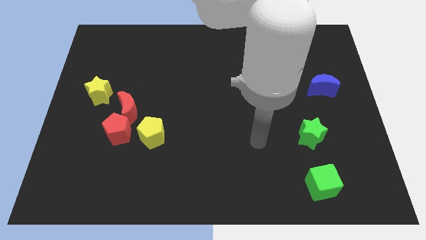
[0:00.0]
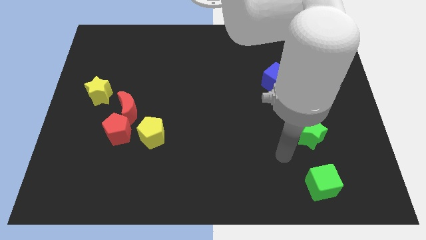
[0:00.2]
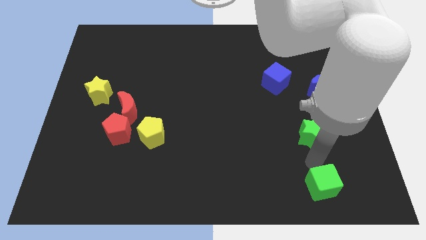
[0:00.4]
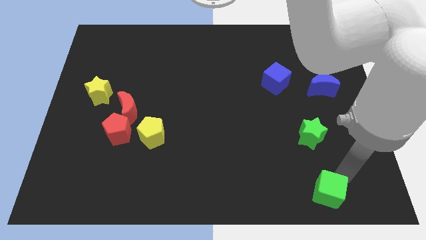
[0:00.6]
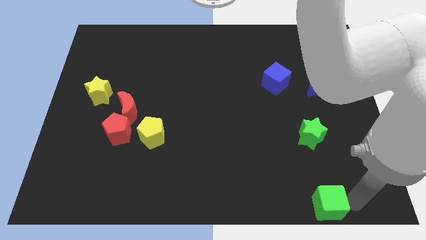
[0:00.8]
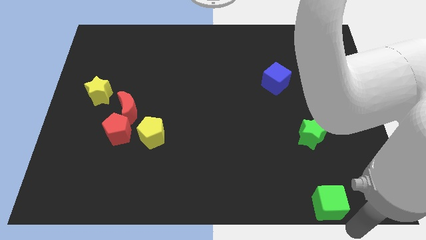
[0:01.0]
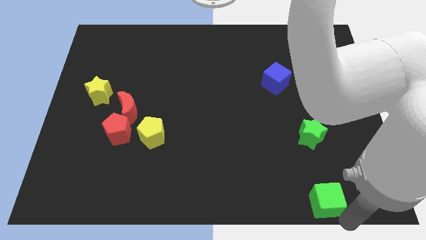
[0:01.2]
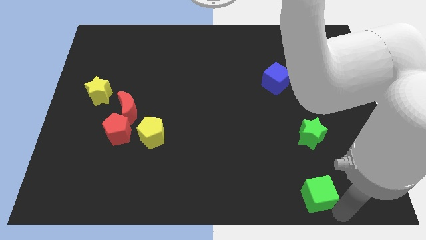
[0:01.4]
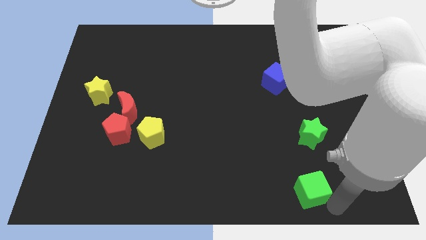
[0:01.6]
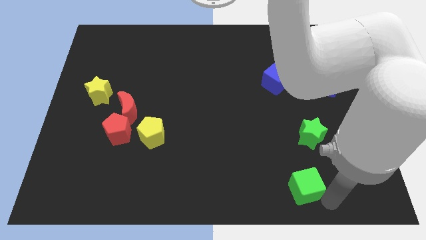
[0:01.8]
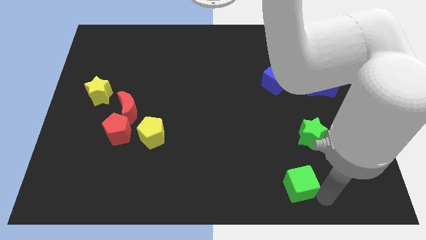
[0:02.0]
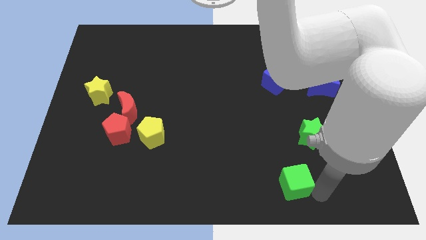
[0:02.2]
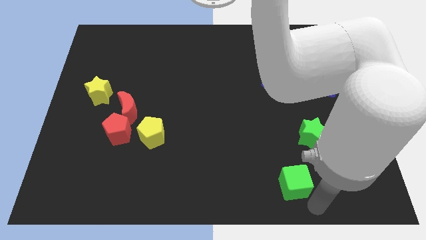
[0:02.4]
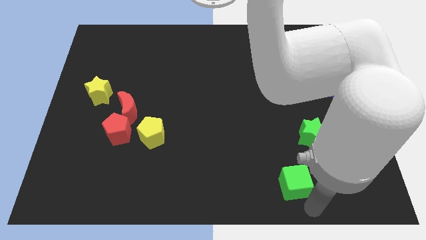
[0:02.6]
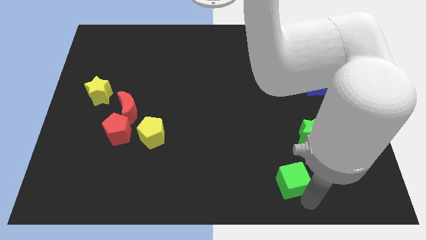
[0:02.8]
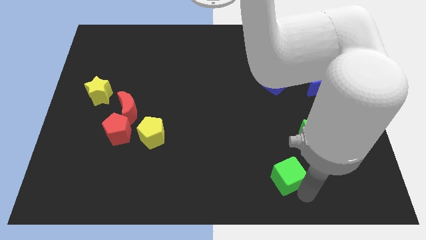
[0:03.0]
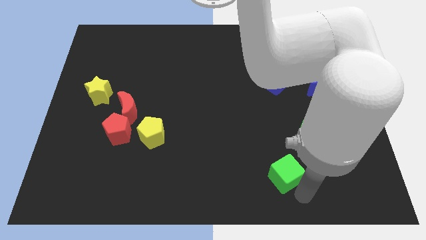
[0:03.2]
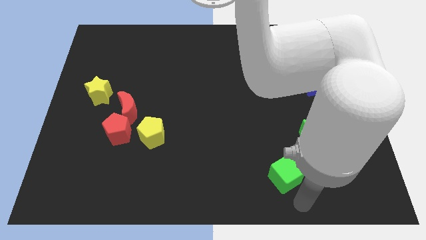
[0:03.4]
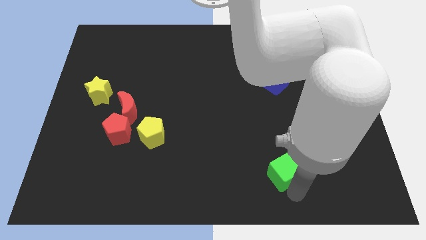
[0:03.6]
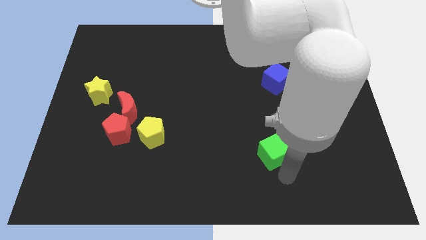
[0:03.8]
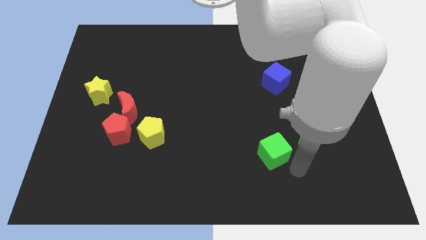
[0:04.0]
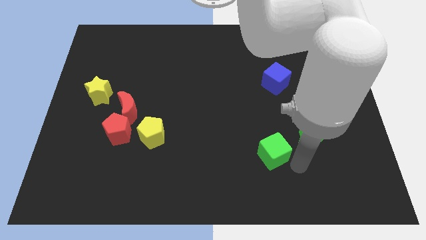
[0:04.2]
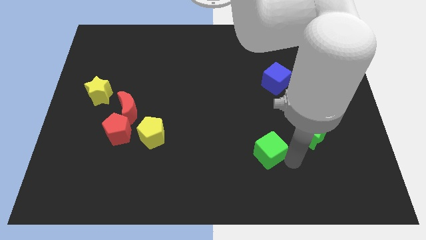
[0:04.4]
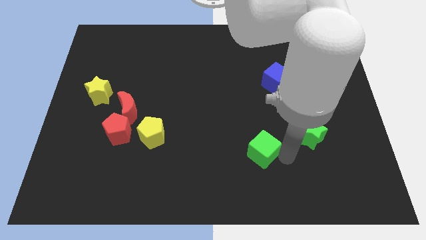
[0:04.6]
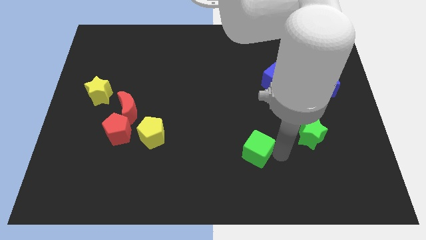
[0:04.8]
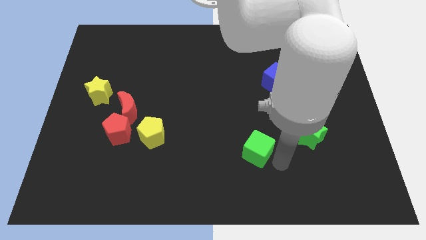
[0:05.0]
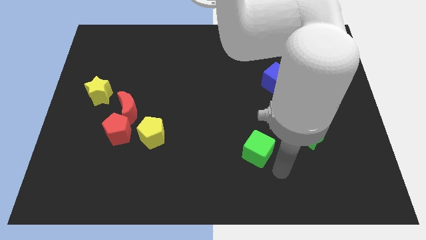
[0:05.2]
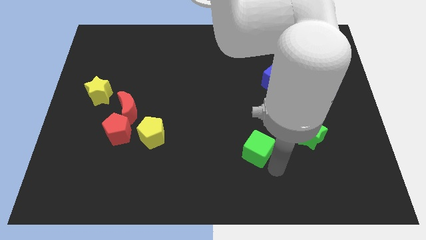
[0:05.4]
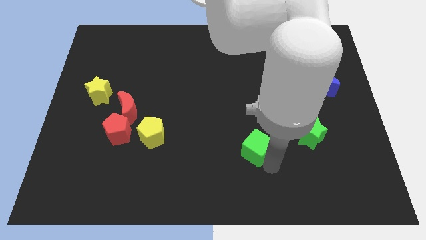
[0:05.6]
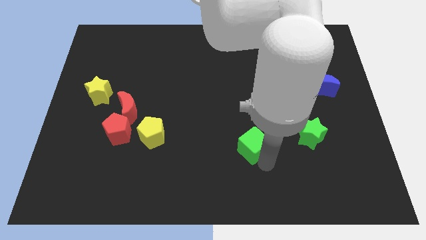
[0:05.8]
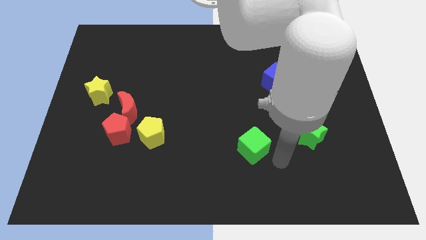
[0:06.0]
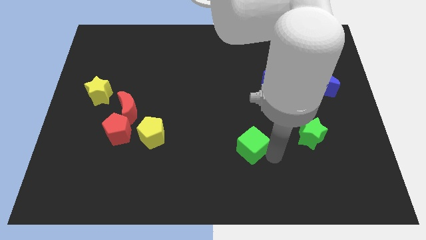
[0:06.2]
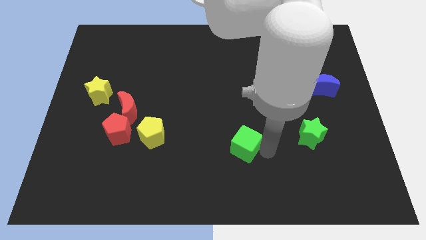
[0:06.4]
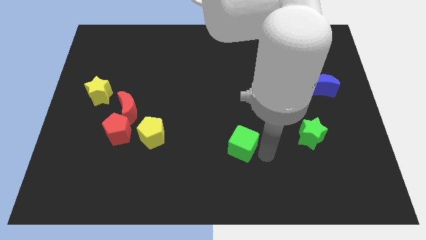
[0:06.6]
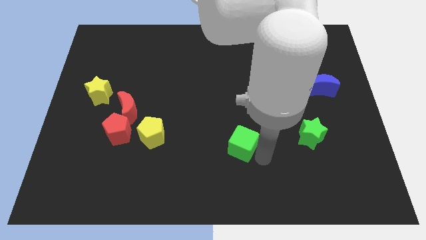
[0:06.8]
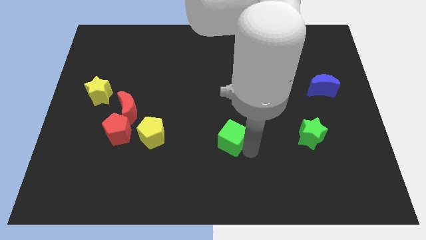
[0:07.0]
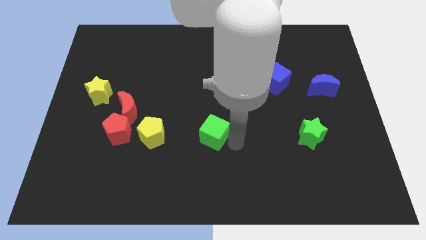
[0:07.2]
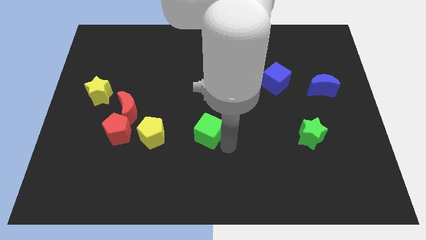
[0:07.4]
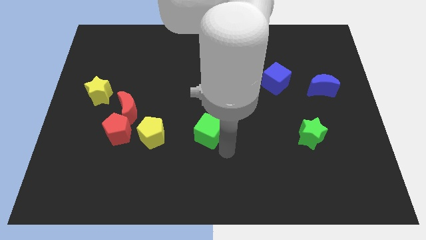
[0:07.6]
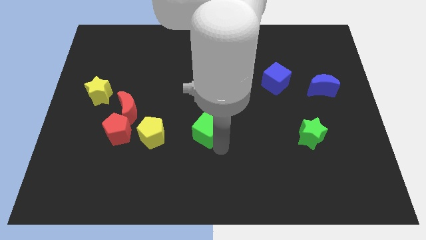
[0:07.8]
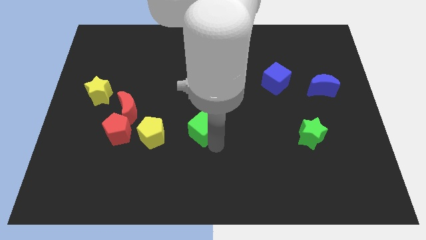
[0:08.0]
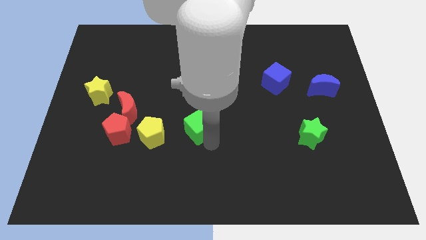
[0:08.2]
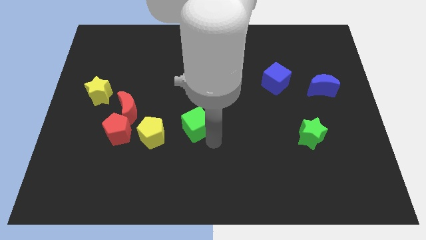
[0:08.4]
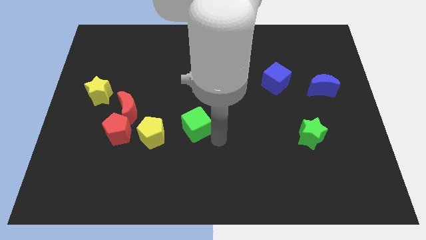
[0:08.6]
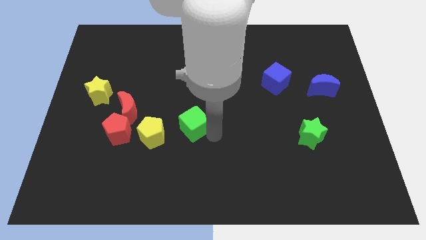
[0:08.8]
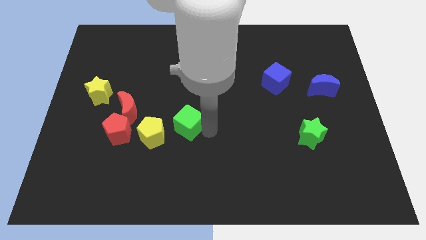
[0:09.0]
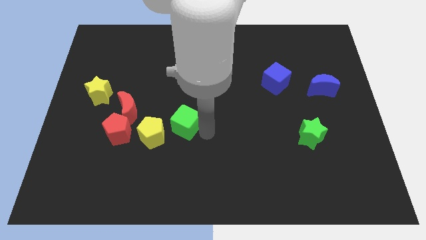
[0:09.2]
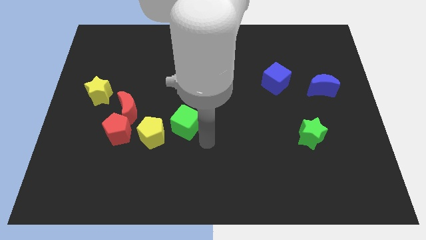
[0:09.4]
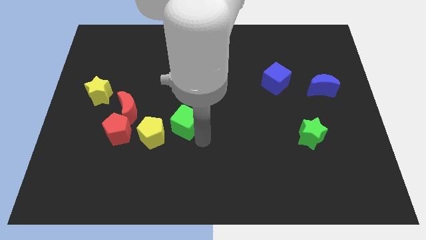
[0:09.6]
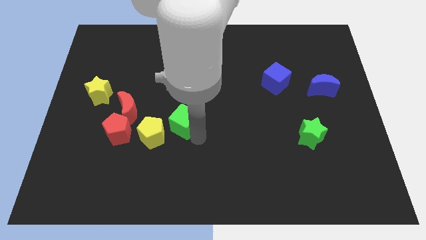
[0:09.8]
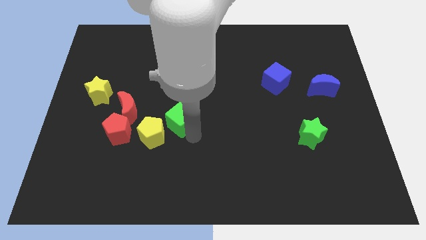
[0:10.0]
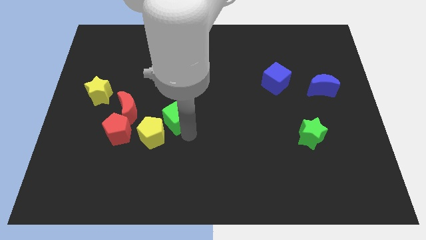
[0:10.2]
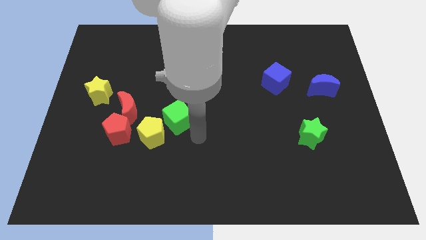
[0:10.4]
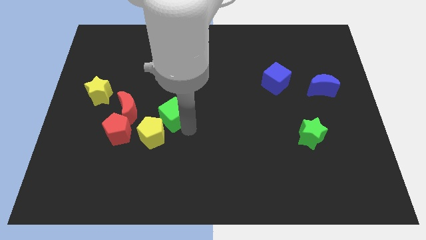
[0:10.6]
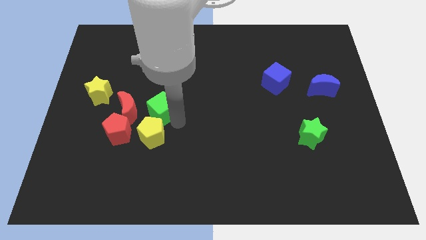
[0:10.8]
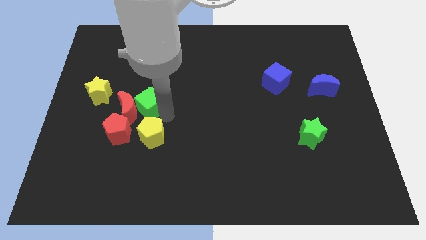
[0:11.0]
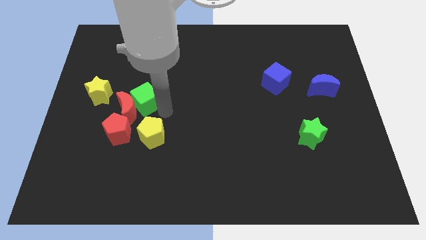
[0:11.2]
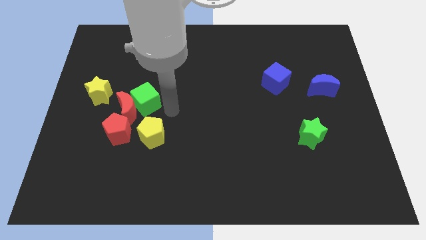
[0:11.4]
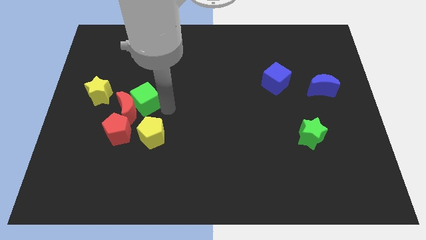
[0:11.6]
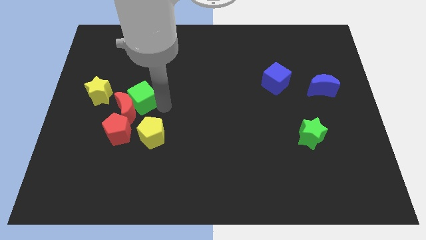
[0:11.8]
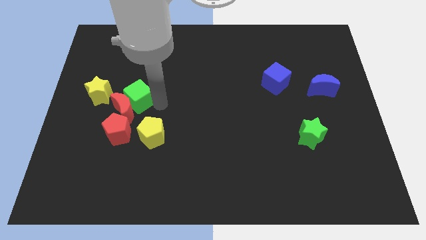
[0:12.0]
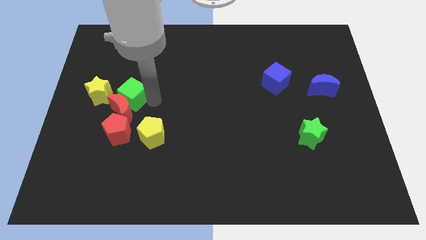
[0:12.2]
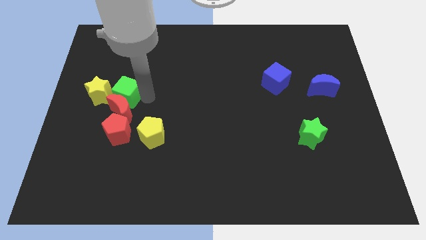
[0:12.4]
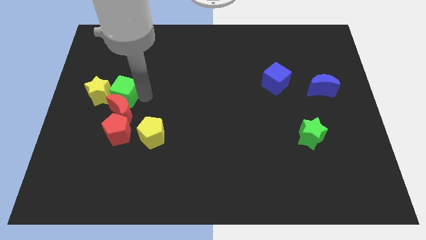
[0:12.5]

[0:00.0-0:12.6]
move the green cube next to the yellow star
